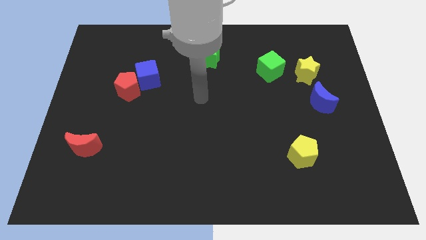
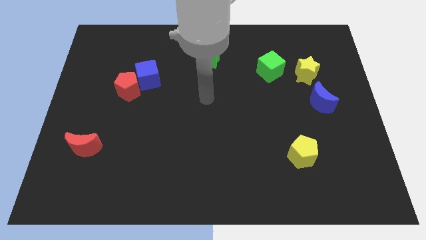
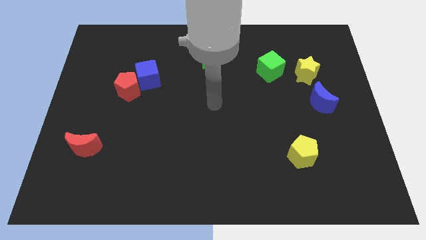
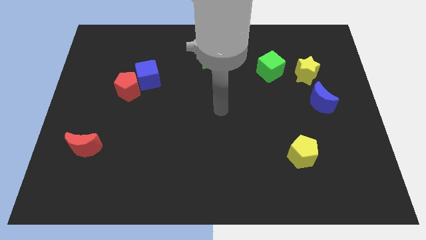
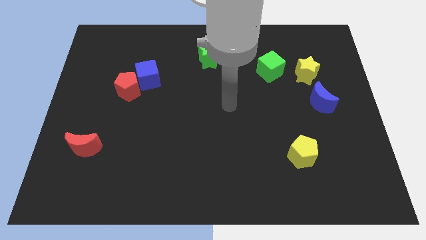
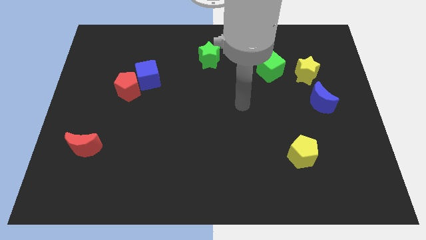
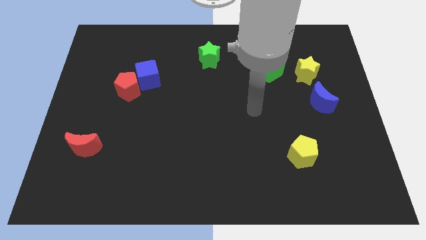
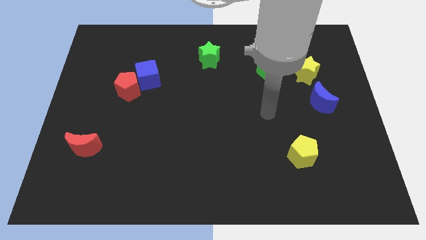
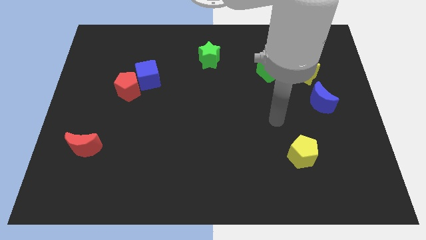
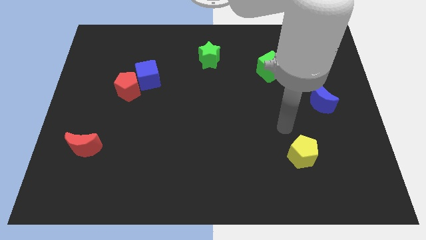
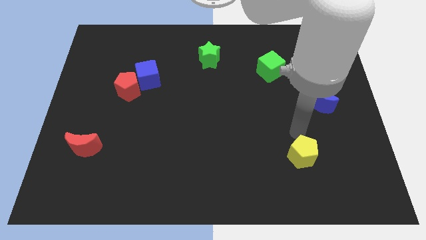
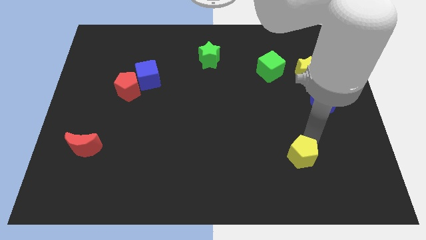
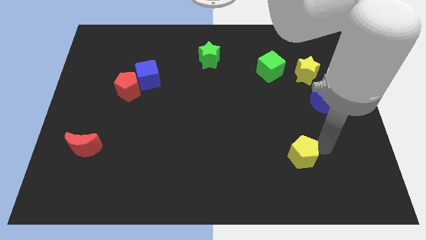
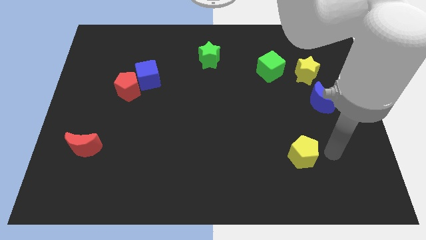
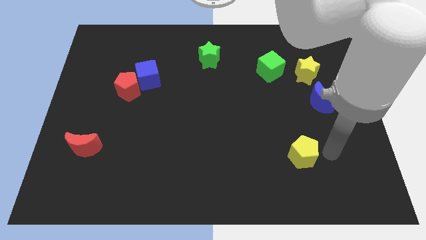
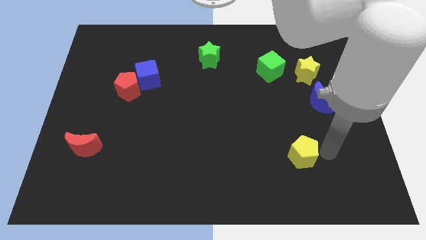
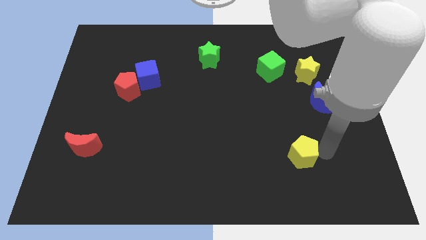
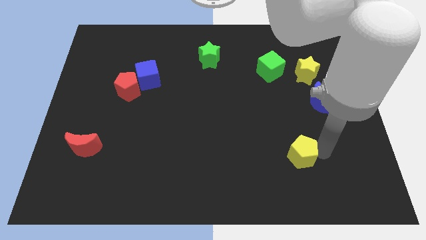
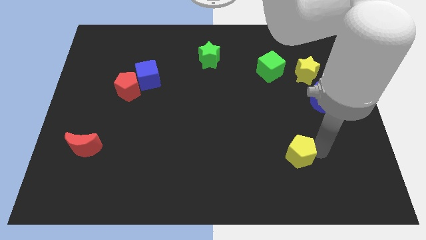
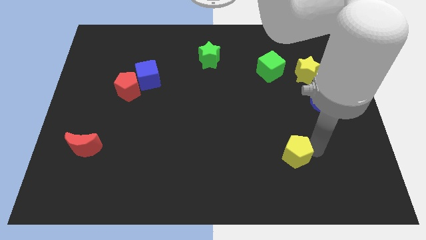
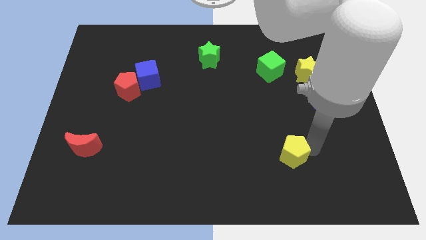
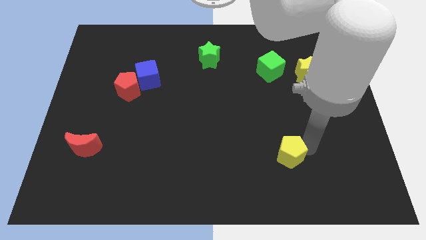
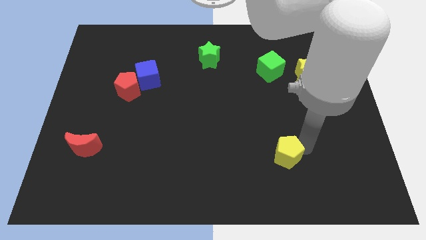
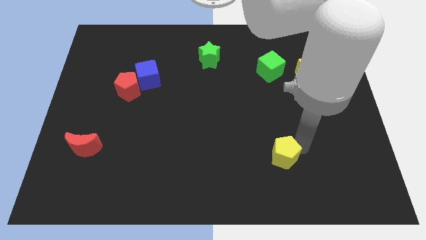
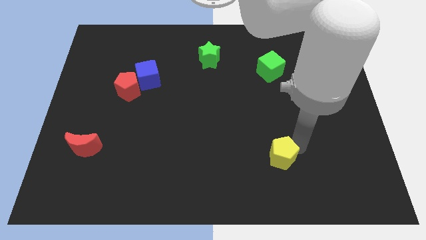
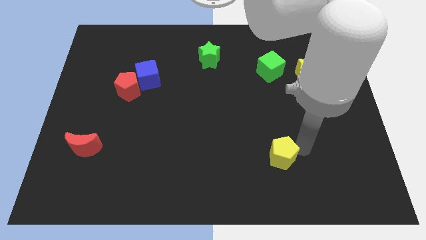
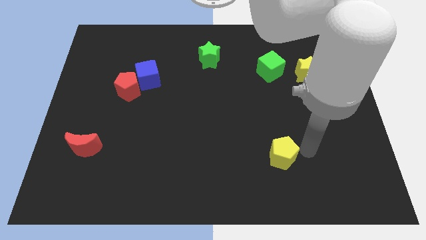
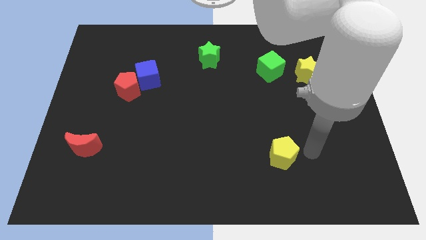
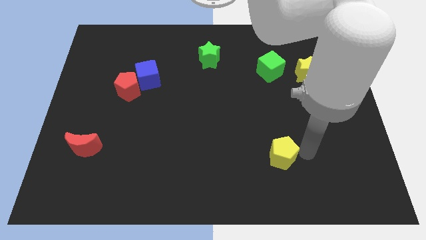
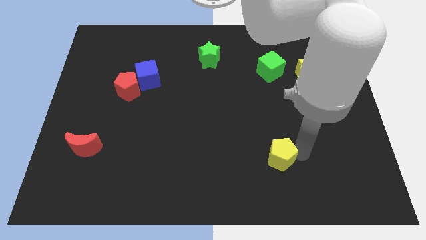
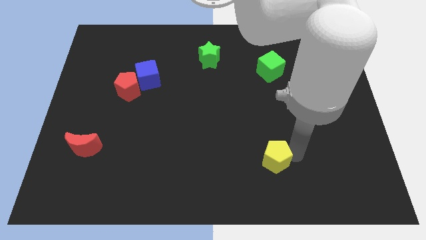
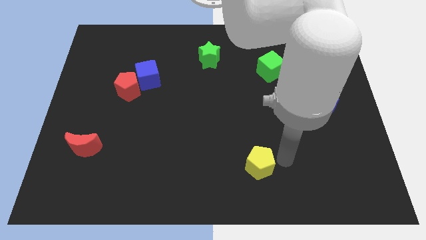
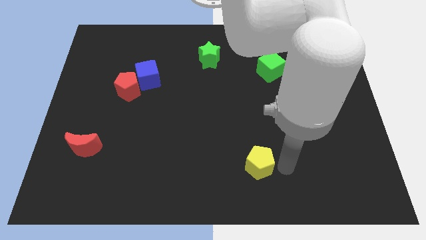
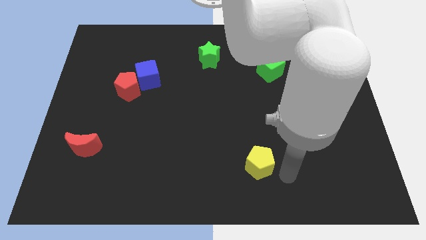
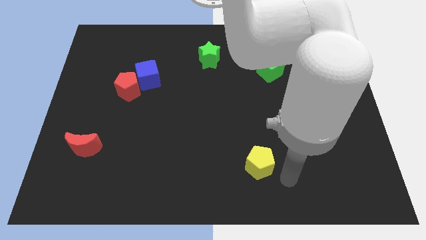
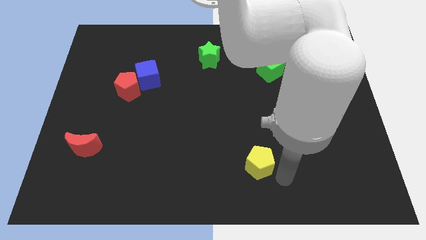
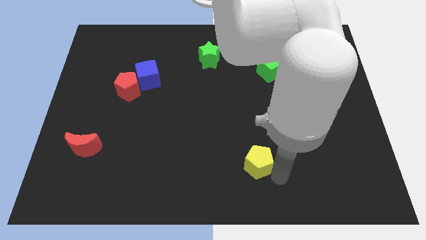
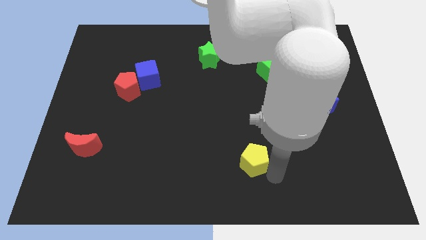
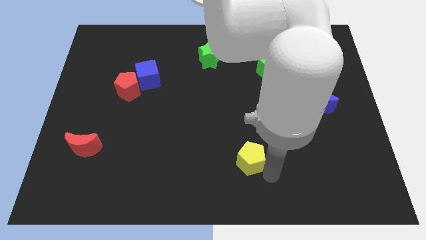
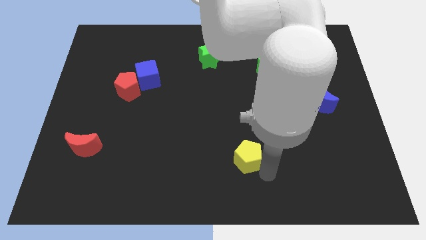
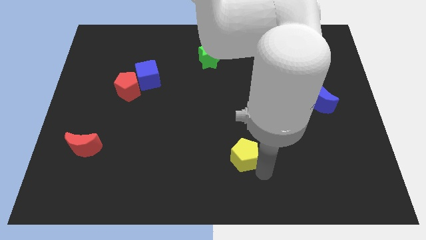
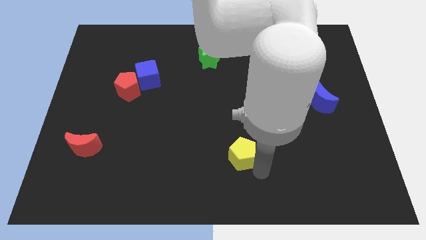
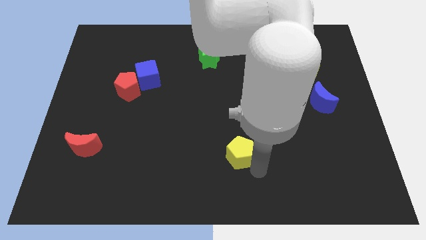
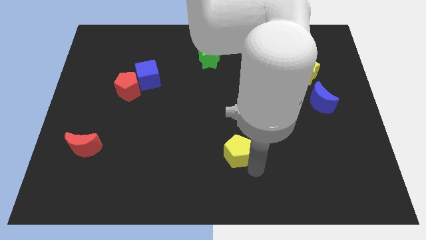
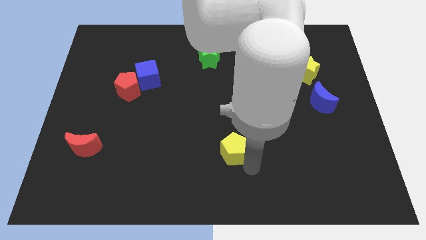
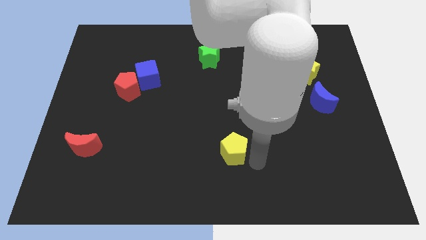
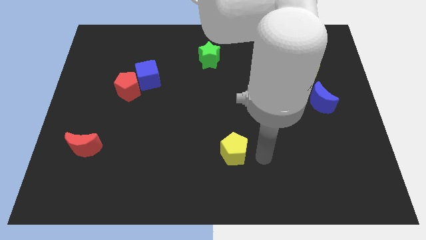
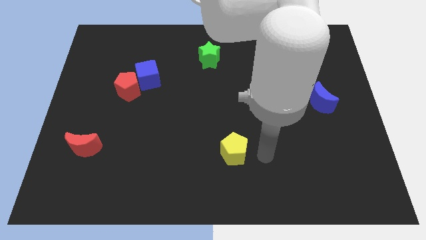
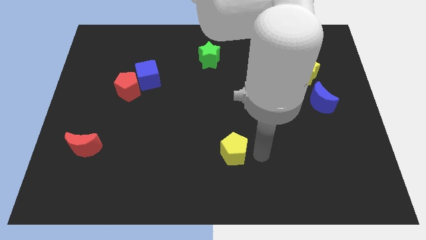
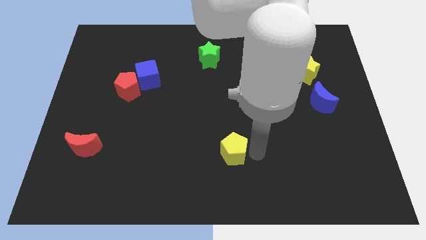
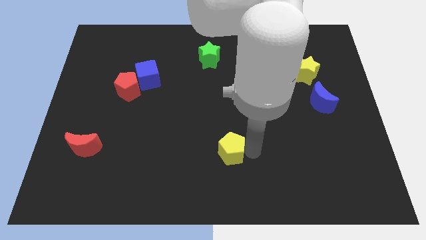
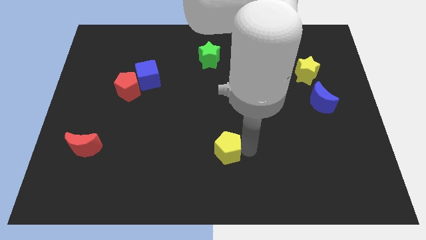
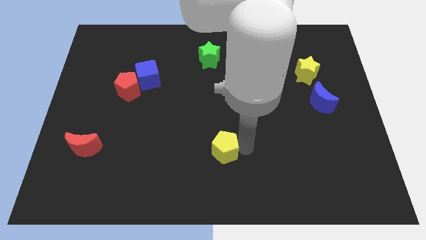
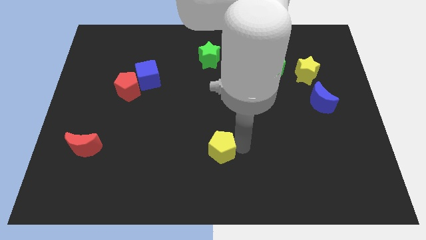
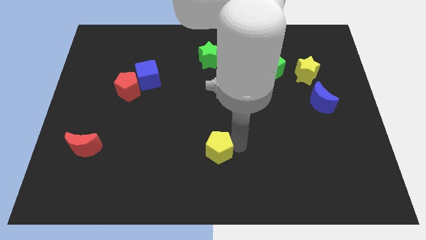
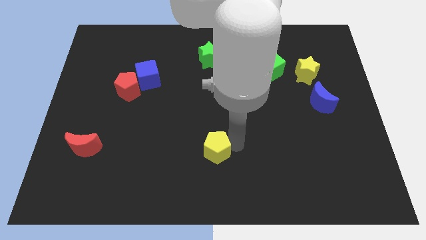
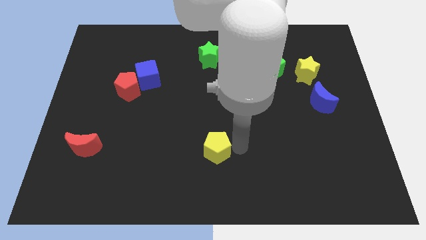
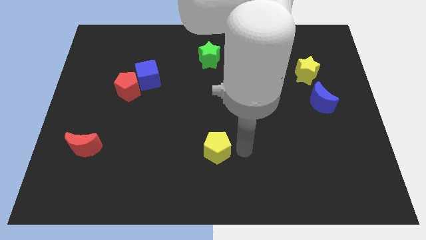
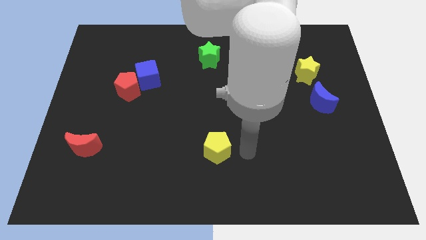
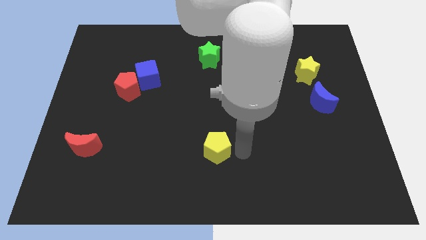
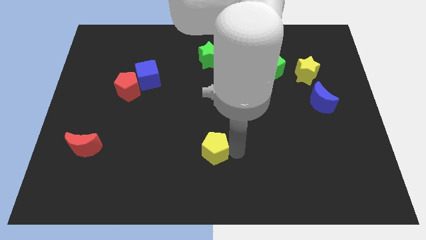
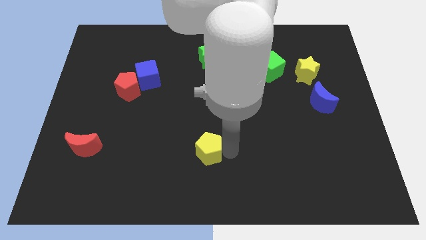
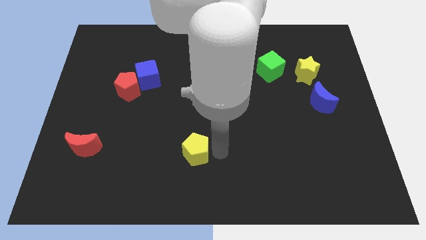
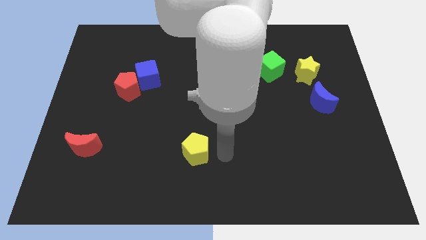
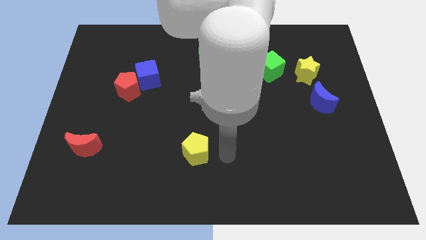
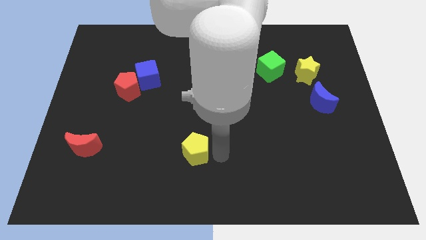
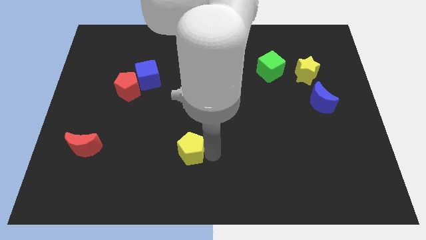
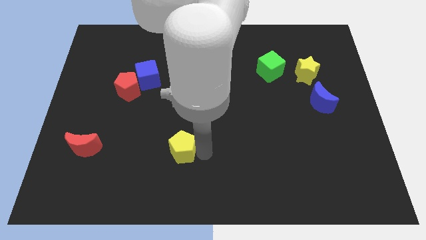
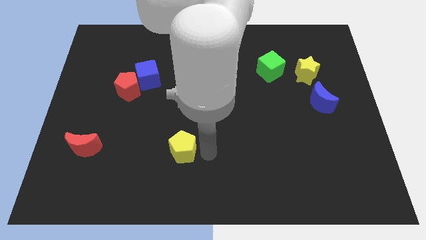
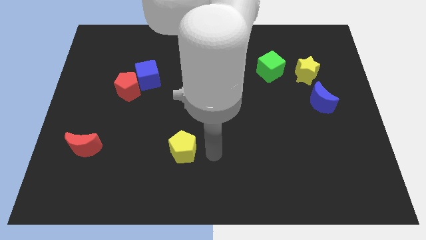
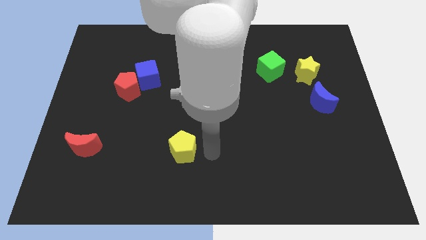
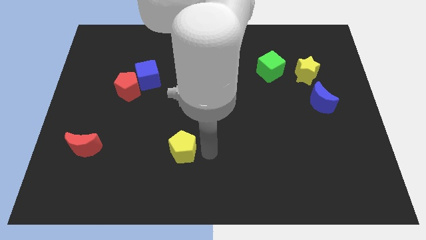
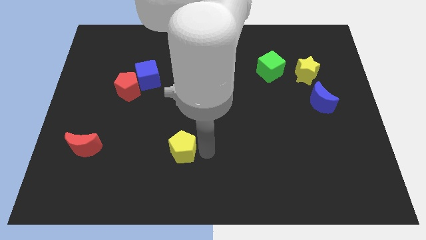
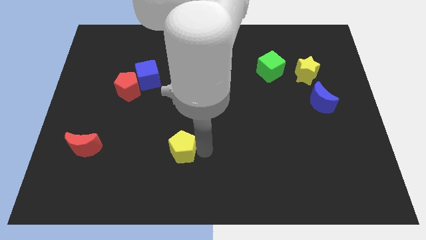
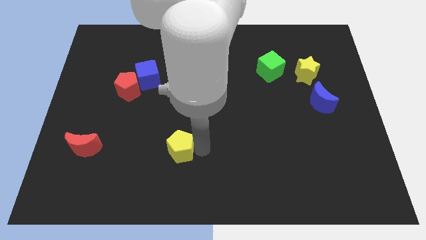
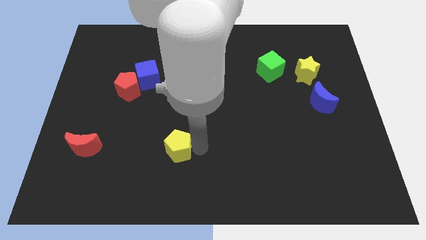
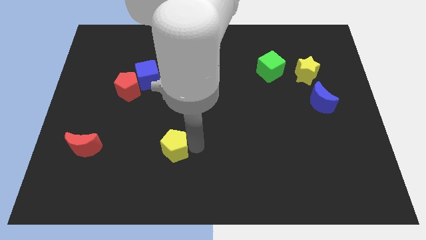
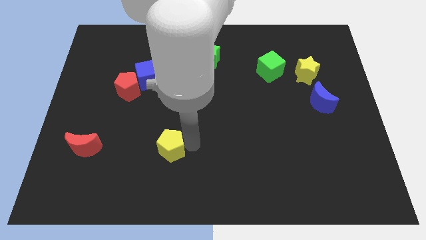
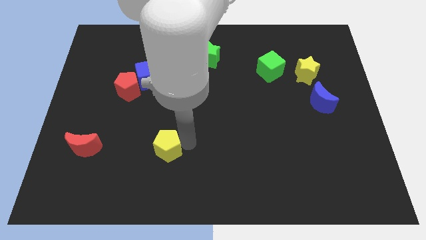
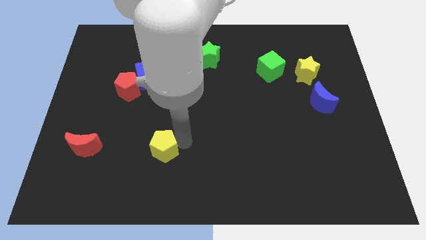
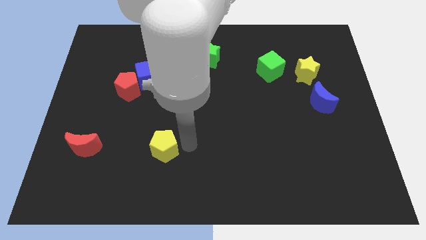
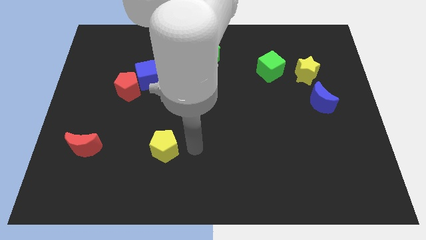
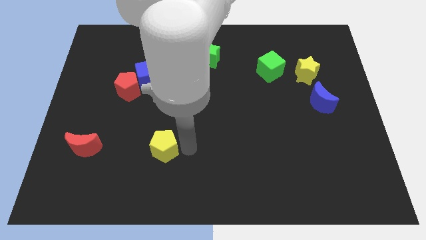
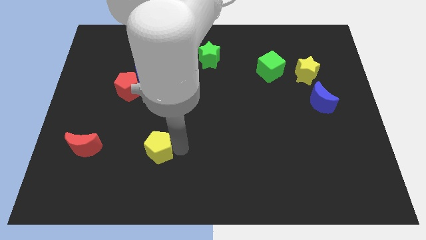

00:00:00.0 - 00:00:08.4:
move the yellow pentagon just right of the red moon
